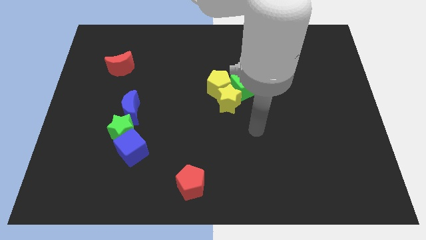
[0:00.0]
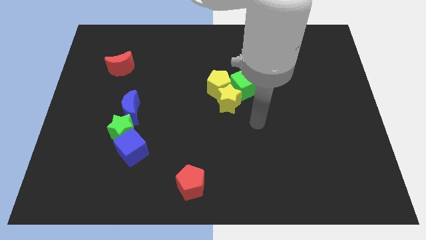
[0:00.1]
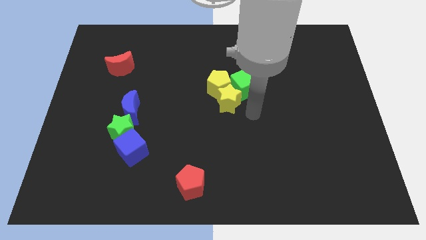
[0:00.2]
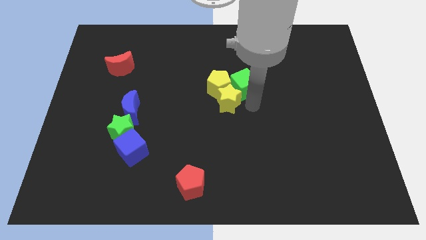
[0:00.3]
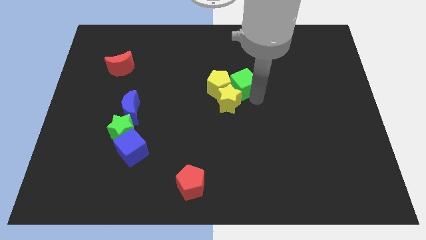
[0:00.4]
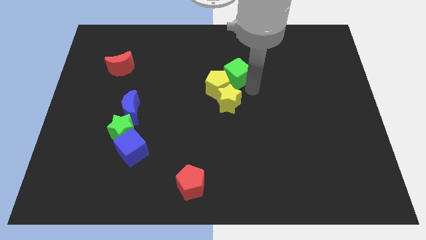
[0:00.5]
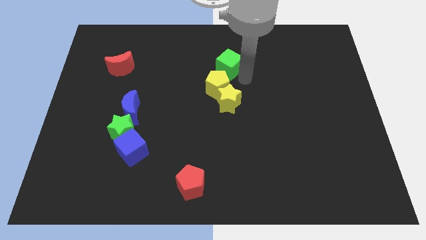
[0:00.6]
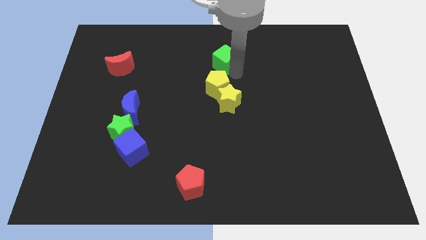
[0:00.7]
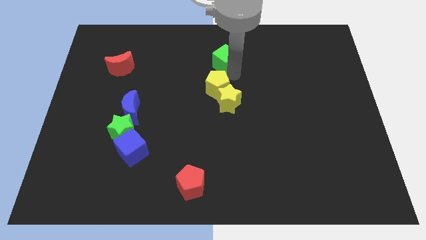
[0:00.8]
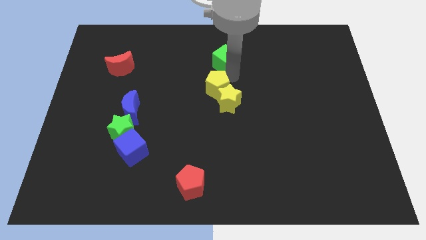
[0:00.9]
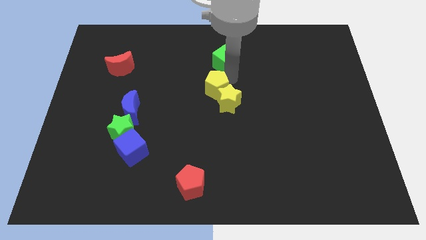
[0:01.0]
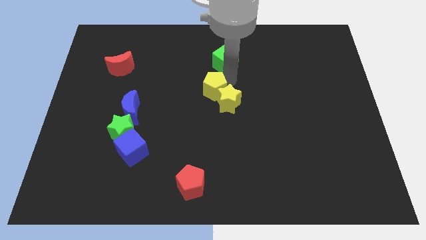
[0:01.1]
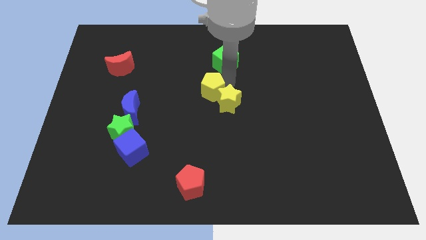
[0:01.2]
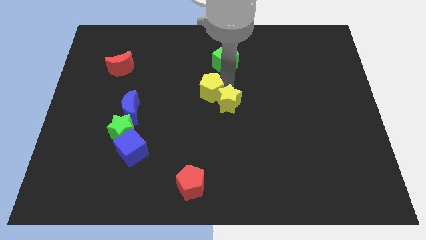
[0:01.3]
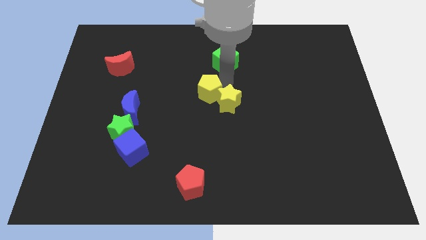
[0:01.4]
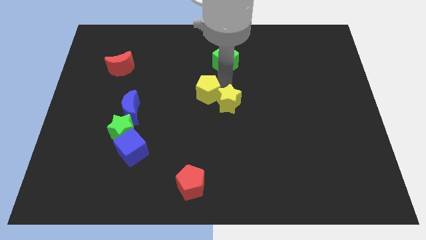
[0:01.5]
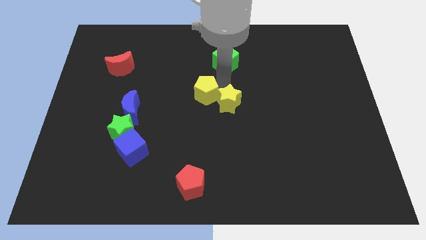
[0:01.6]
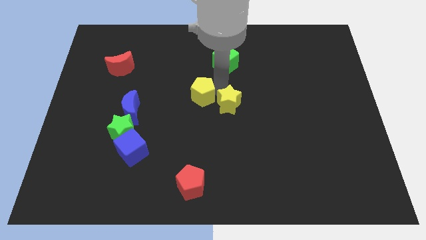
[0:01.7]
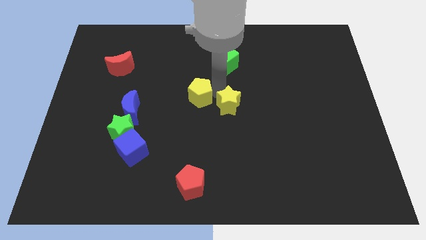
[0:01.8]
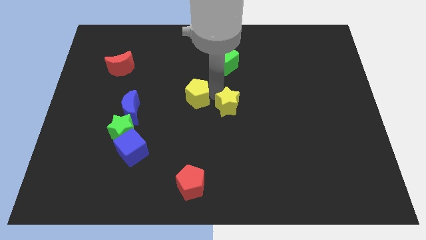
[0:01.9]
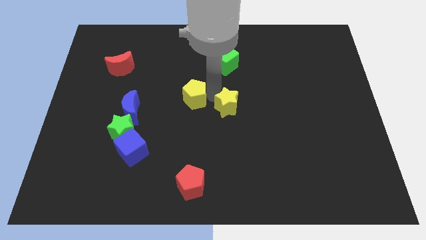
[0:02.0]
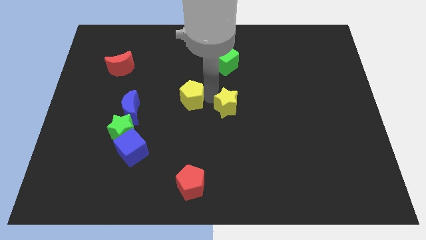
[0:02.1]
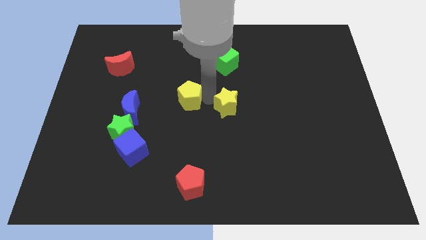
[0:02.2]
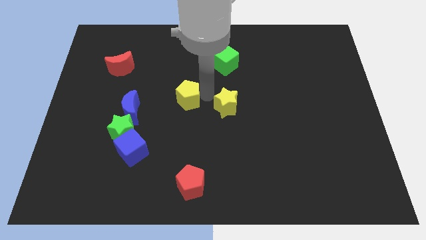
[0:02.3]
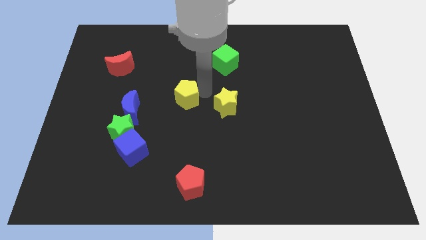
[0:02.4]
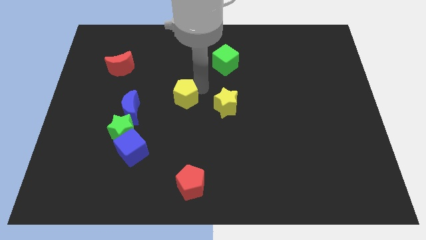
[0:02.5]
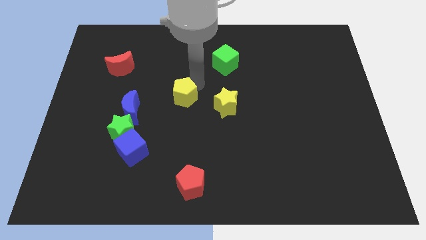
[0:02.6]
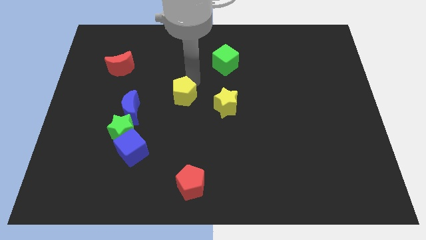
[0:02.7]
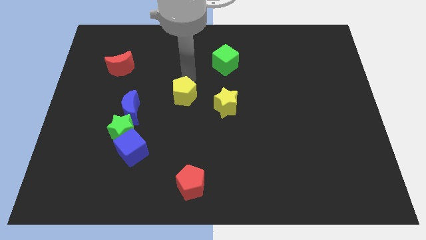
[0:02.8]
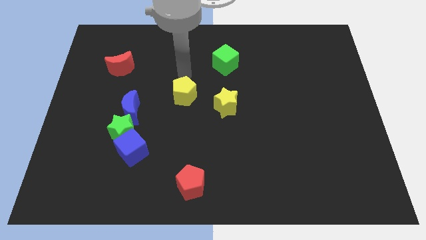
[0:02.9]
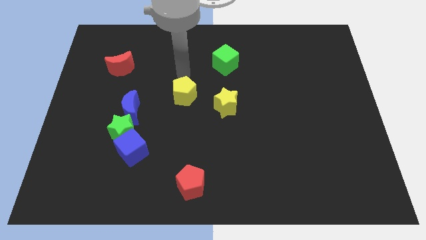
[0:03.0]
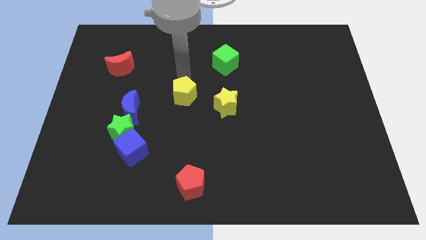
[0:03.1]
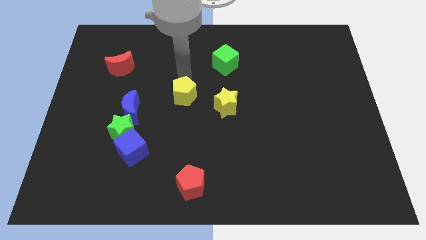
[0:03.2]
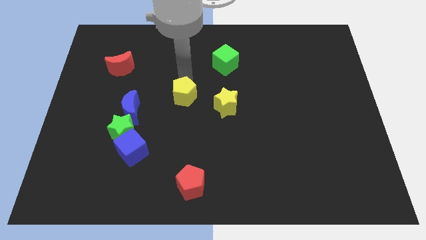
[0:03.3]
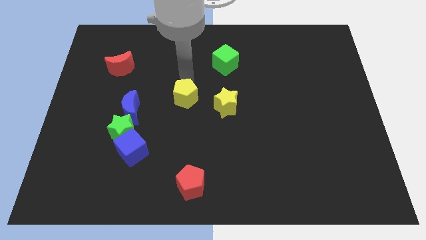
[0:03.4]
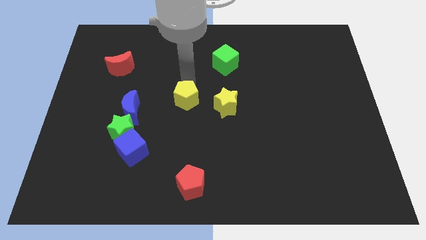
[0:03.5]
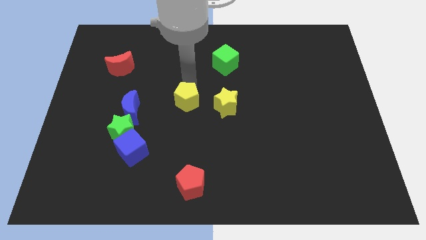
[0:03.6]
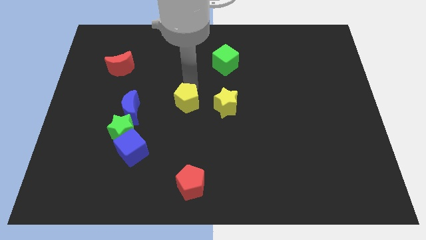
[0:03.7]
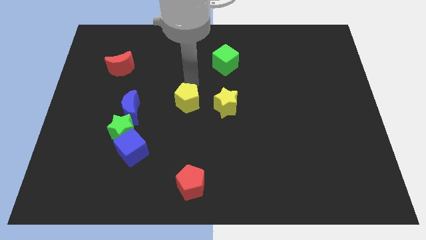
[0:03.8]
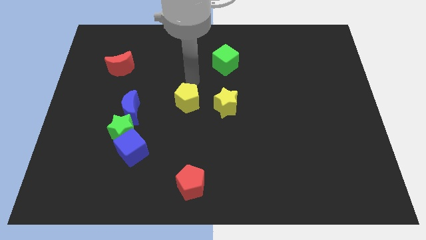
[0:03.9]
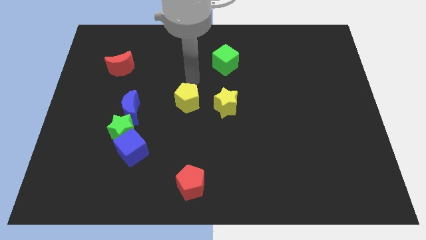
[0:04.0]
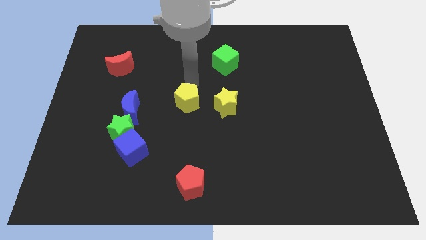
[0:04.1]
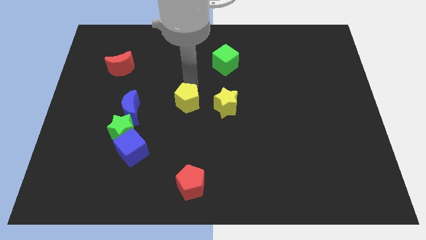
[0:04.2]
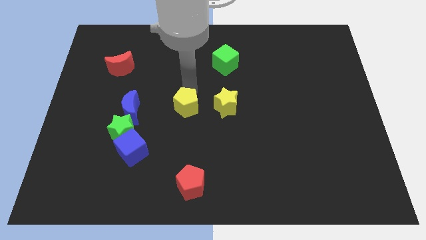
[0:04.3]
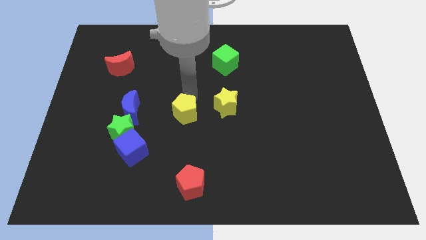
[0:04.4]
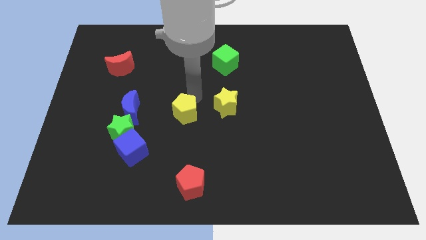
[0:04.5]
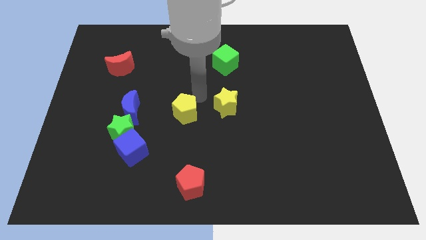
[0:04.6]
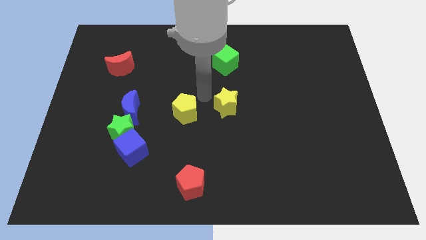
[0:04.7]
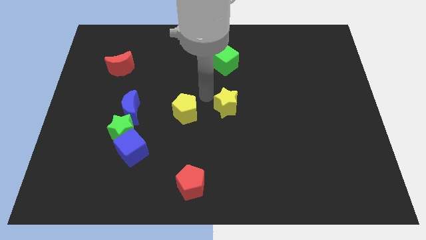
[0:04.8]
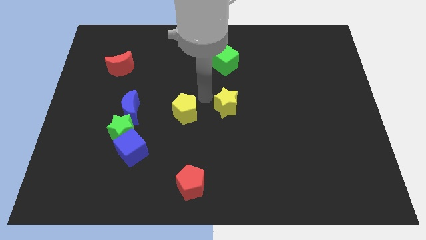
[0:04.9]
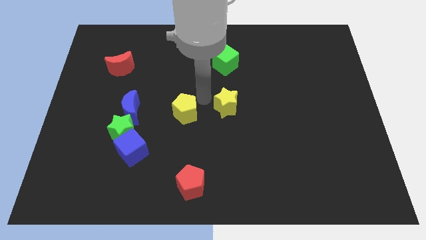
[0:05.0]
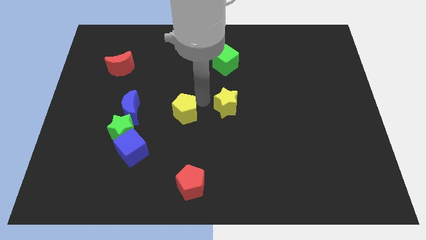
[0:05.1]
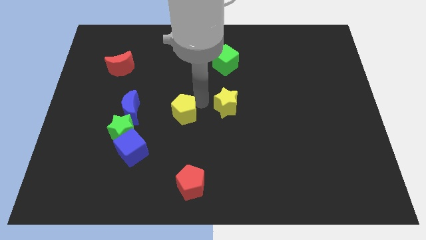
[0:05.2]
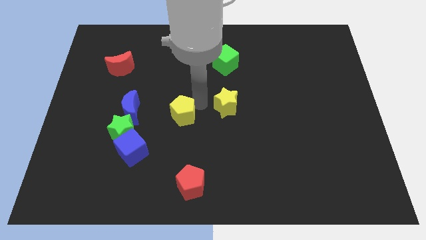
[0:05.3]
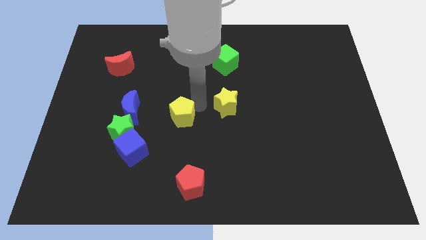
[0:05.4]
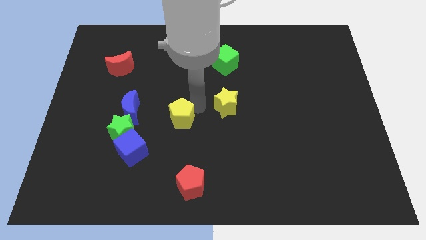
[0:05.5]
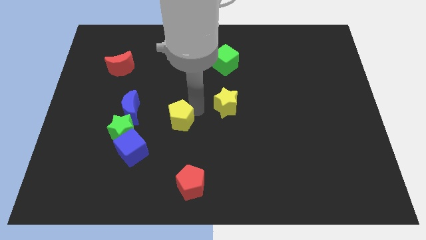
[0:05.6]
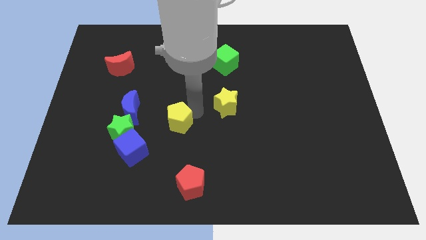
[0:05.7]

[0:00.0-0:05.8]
put the yellow pentagon to the top right of the blue cube

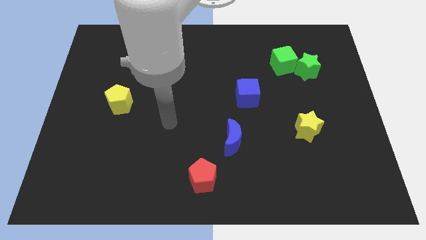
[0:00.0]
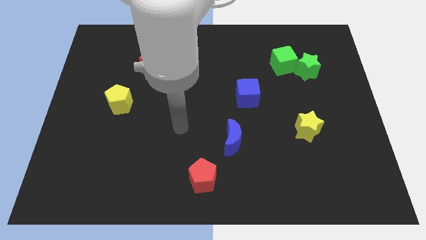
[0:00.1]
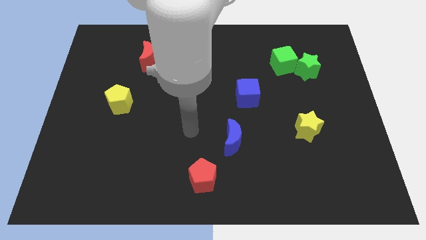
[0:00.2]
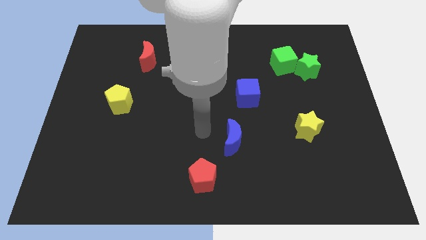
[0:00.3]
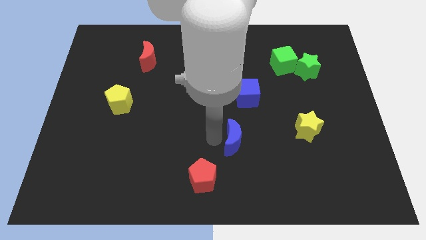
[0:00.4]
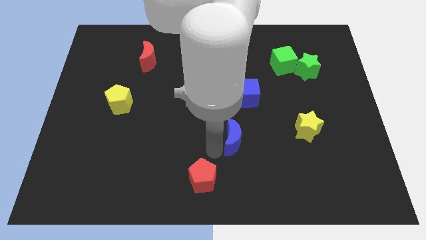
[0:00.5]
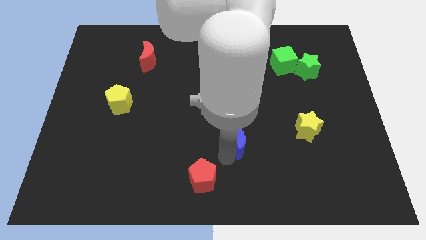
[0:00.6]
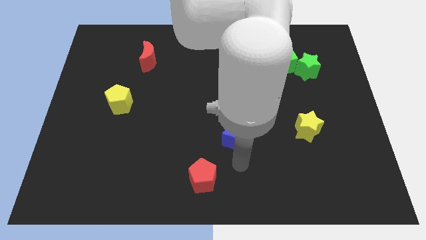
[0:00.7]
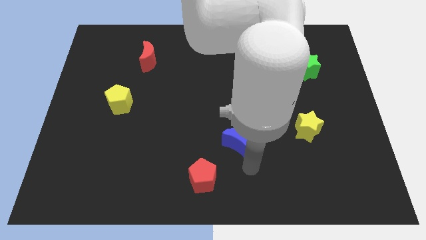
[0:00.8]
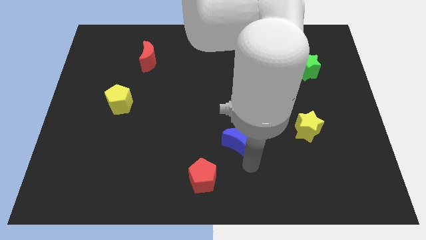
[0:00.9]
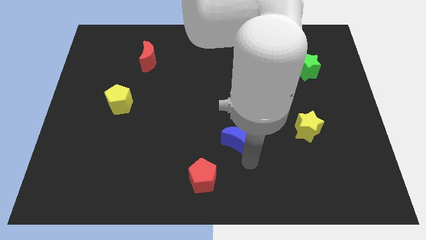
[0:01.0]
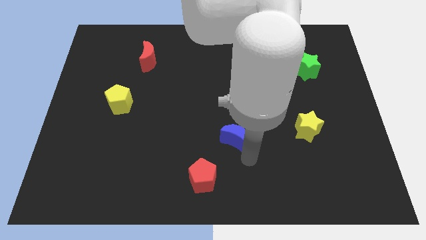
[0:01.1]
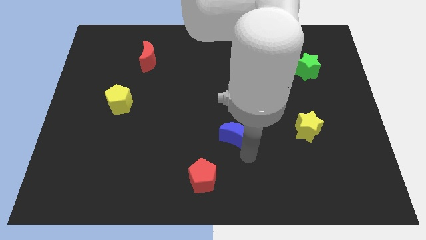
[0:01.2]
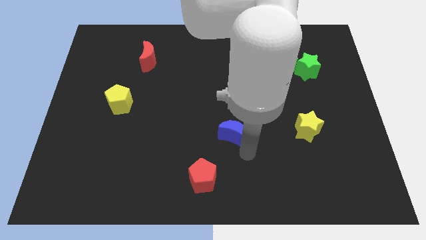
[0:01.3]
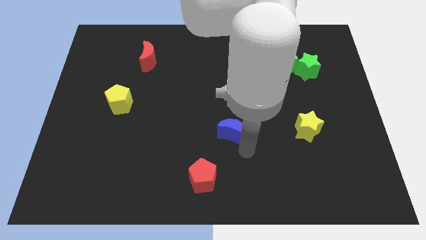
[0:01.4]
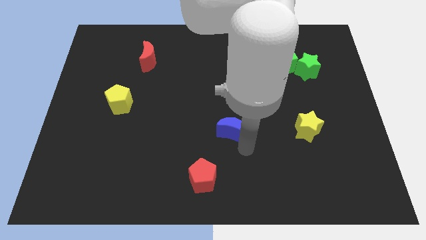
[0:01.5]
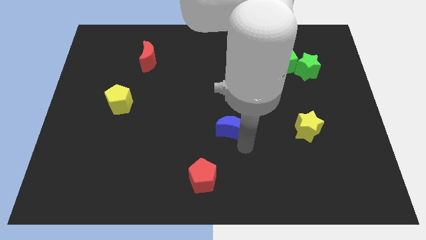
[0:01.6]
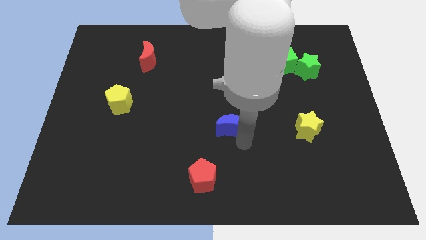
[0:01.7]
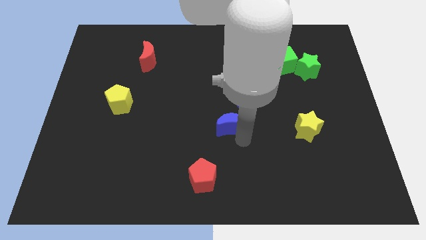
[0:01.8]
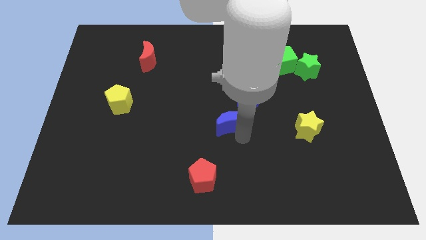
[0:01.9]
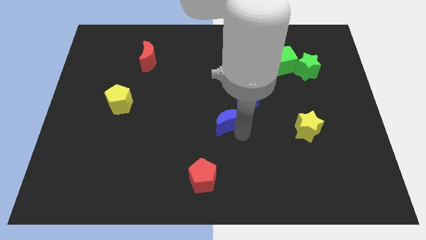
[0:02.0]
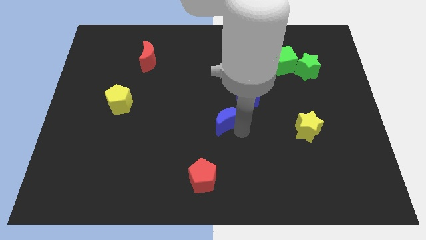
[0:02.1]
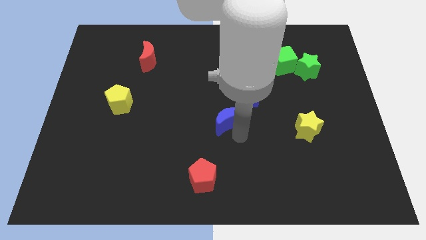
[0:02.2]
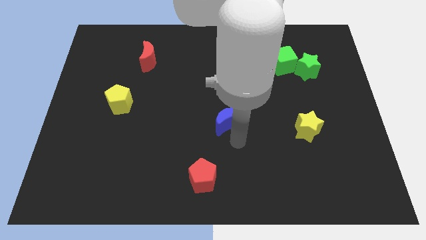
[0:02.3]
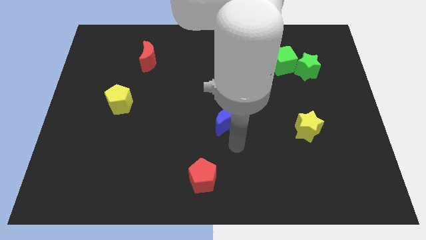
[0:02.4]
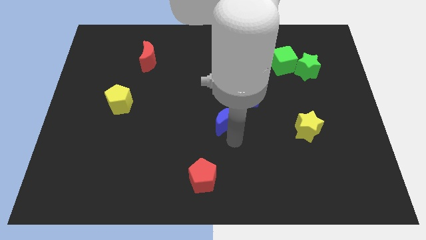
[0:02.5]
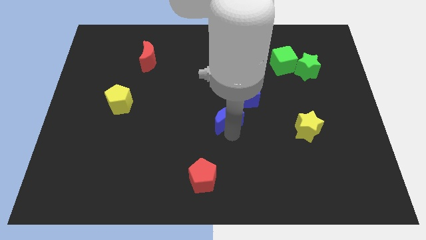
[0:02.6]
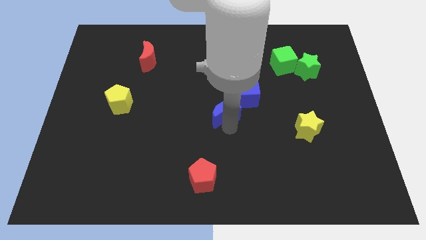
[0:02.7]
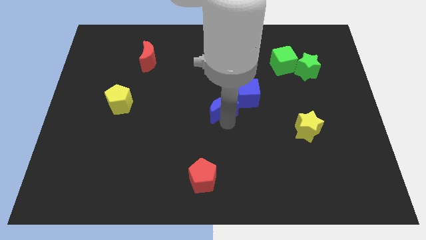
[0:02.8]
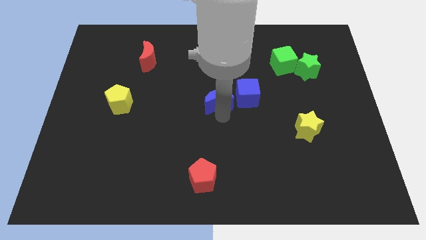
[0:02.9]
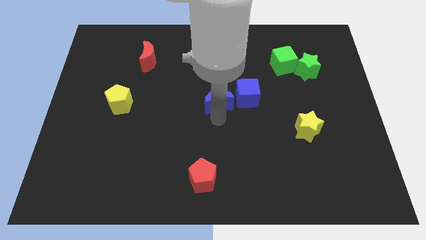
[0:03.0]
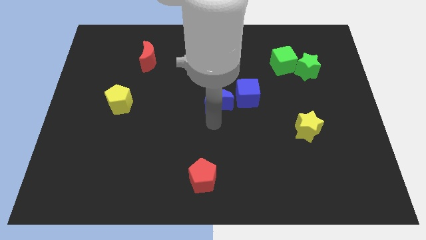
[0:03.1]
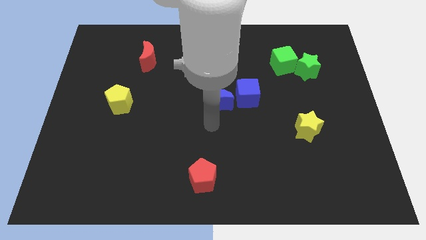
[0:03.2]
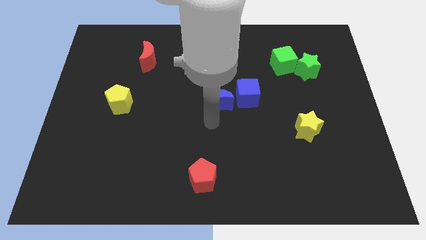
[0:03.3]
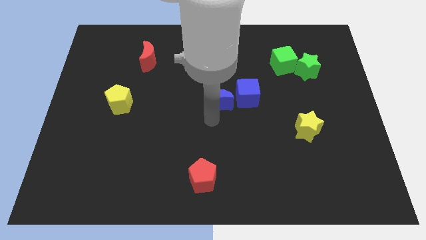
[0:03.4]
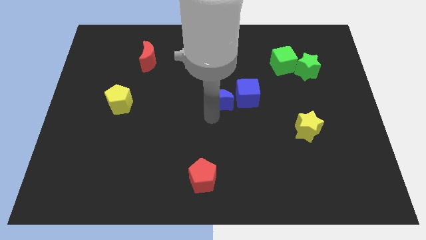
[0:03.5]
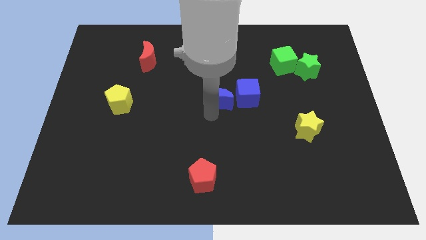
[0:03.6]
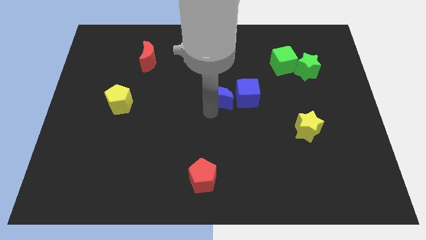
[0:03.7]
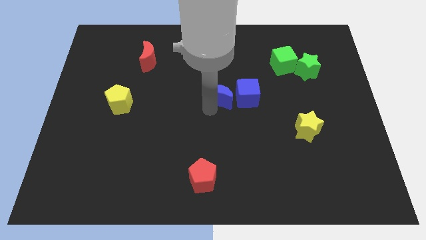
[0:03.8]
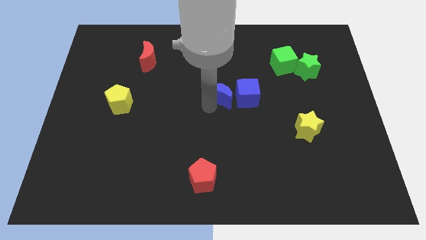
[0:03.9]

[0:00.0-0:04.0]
move the blue moon to the top left of the blue cube
